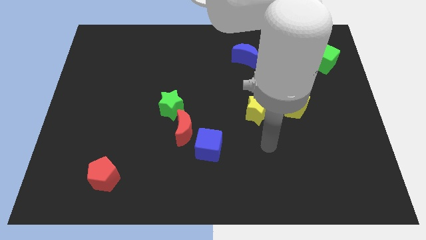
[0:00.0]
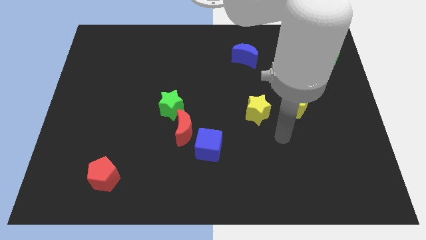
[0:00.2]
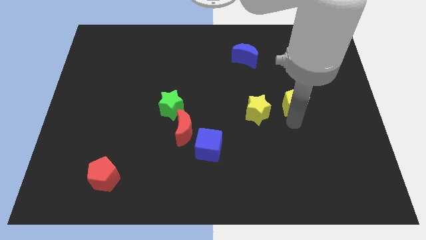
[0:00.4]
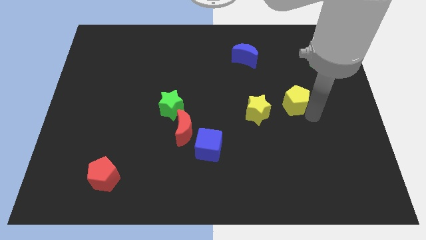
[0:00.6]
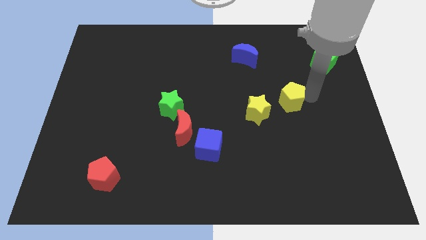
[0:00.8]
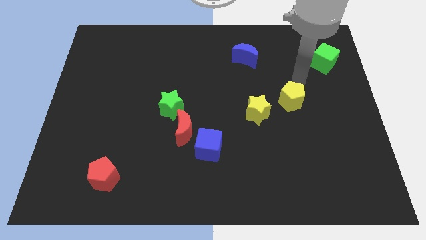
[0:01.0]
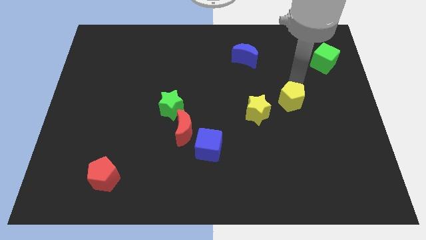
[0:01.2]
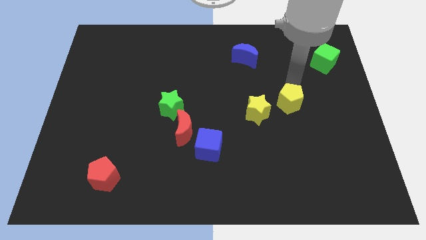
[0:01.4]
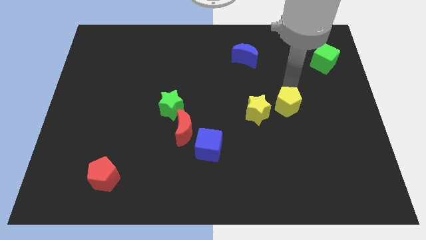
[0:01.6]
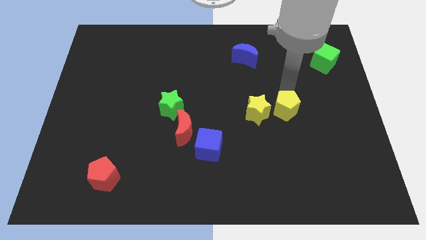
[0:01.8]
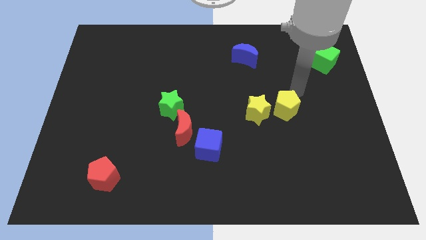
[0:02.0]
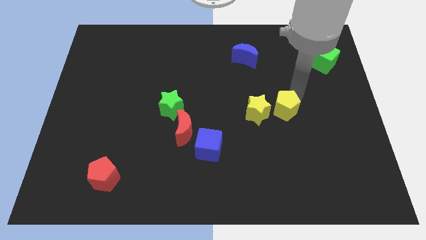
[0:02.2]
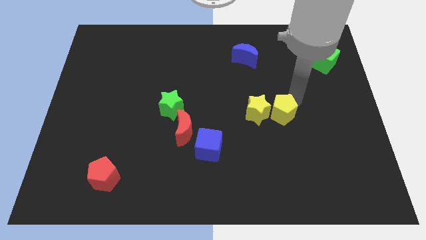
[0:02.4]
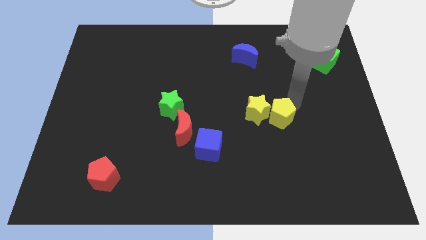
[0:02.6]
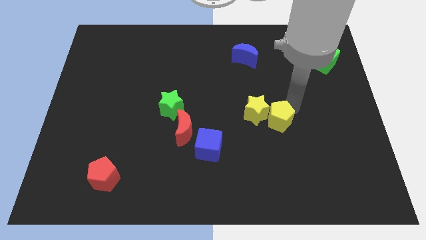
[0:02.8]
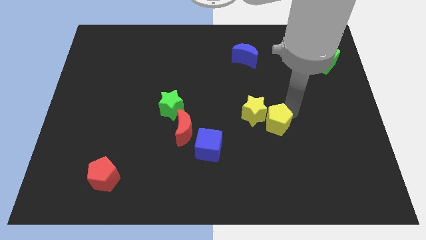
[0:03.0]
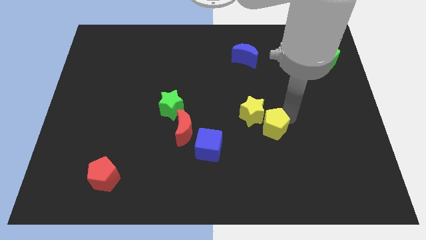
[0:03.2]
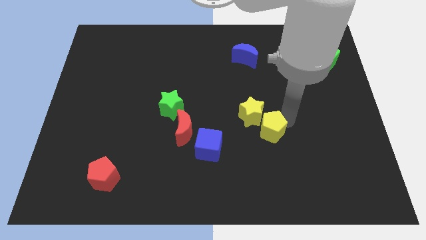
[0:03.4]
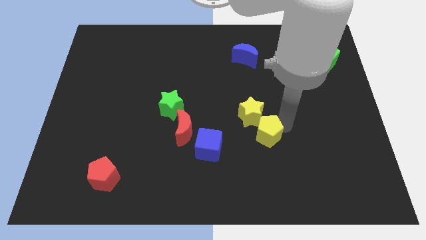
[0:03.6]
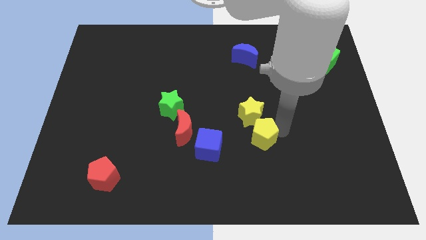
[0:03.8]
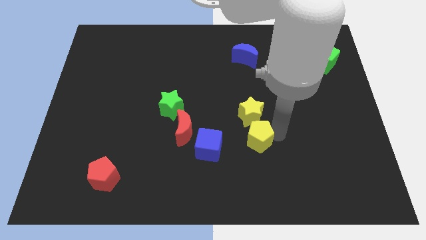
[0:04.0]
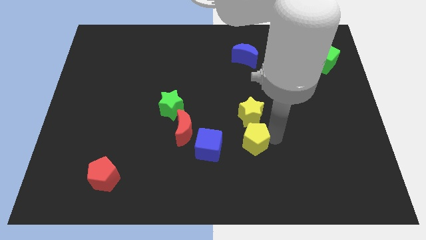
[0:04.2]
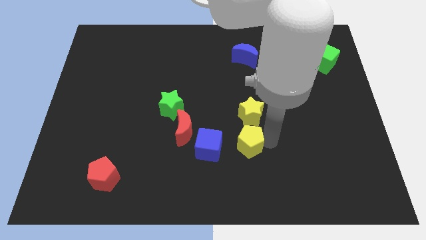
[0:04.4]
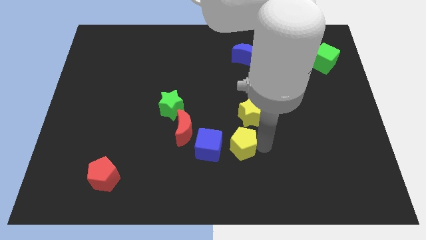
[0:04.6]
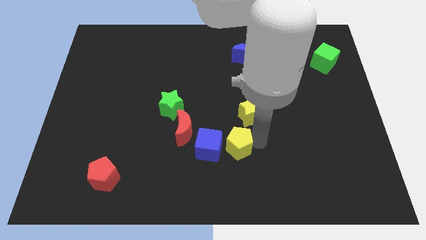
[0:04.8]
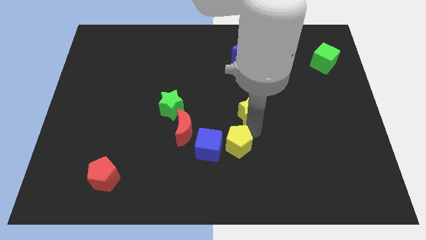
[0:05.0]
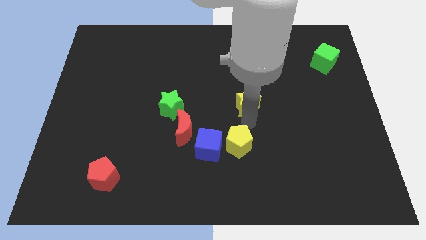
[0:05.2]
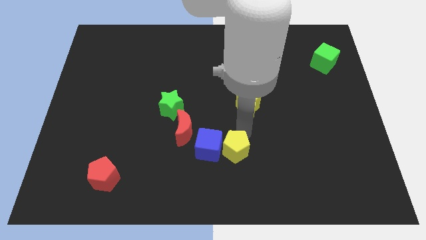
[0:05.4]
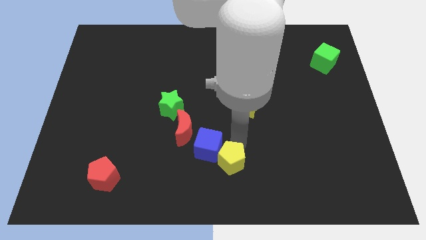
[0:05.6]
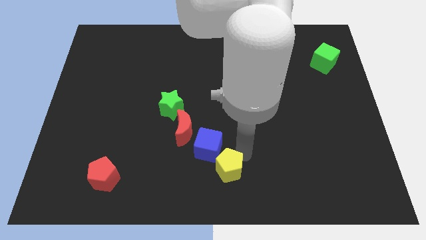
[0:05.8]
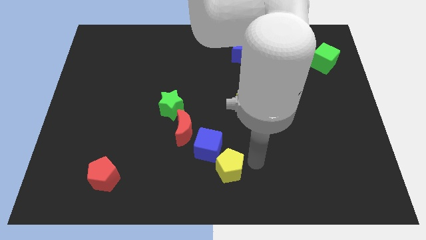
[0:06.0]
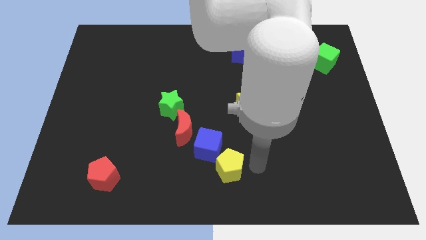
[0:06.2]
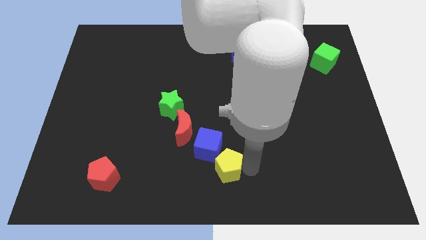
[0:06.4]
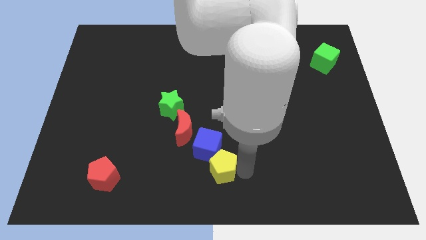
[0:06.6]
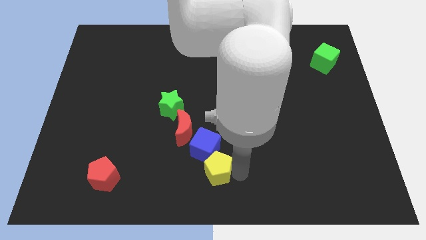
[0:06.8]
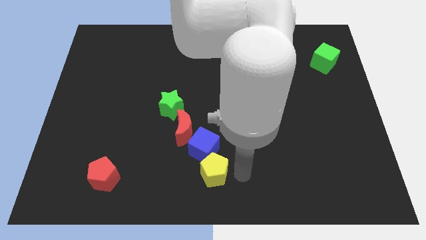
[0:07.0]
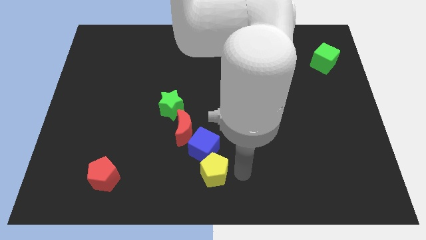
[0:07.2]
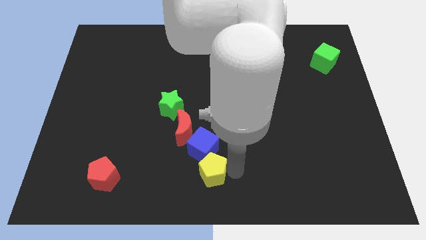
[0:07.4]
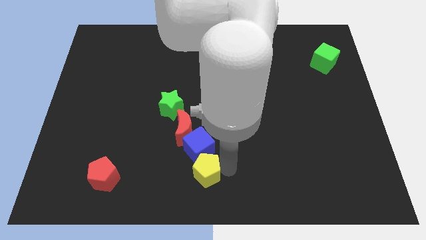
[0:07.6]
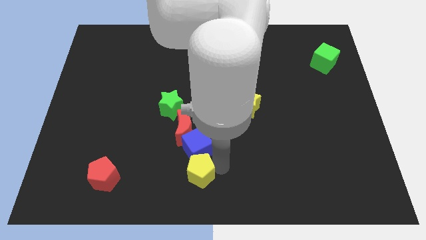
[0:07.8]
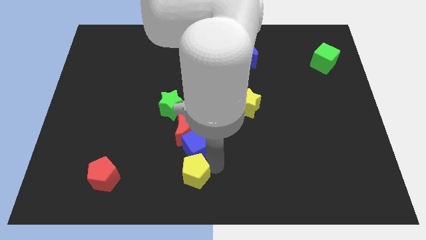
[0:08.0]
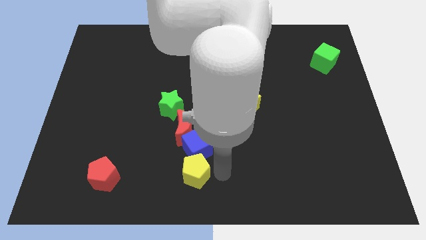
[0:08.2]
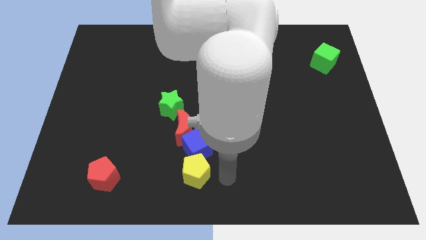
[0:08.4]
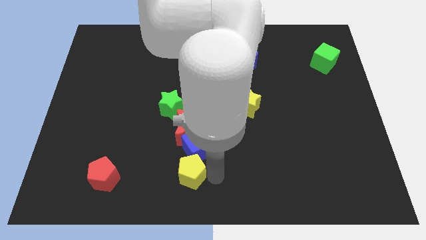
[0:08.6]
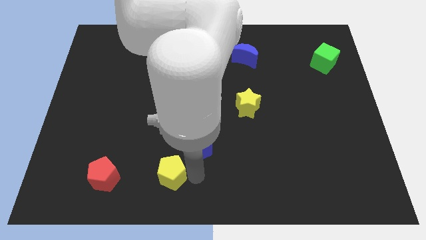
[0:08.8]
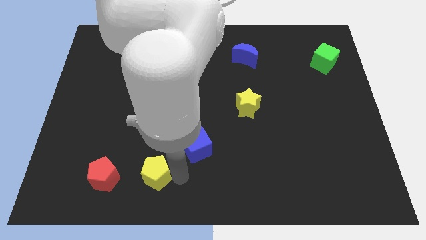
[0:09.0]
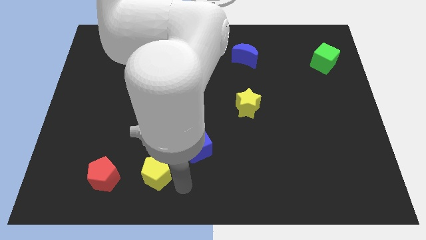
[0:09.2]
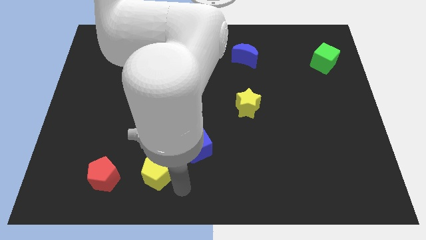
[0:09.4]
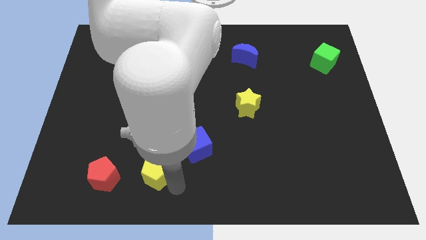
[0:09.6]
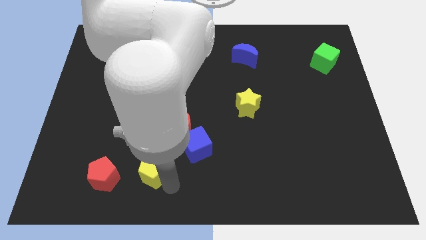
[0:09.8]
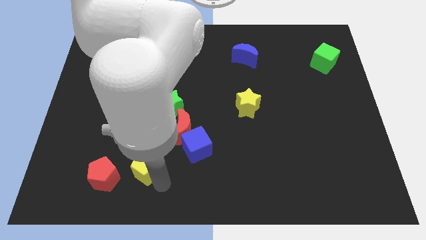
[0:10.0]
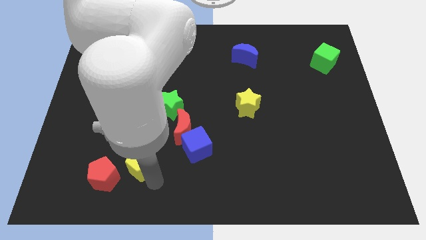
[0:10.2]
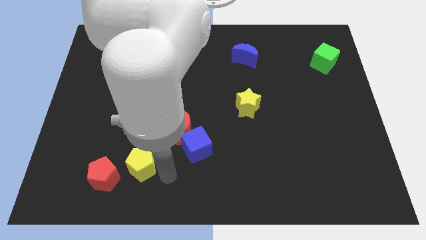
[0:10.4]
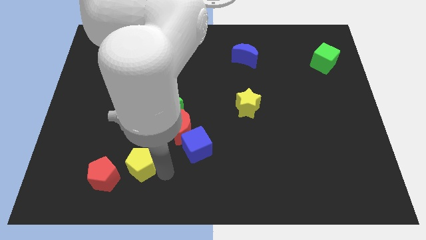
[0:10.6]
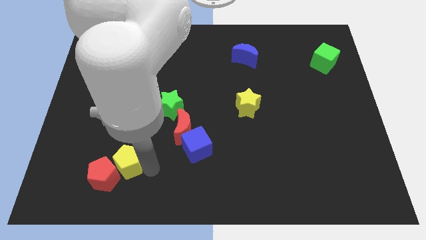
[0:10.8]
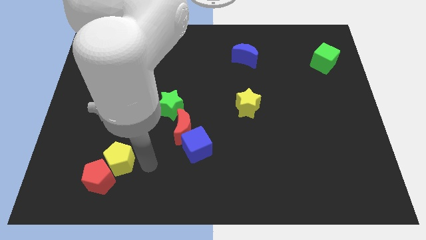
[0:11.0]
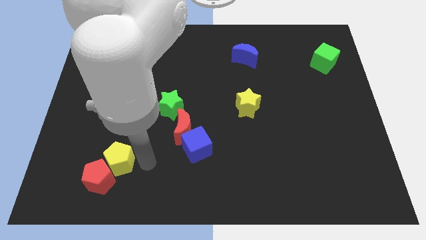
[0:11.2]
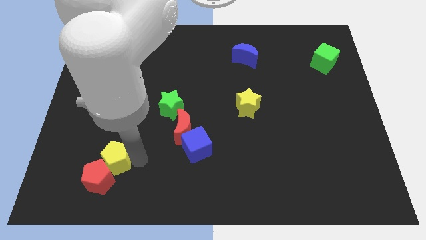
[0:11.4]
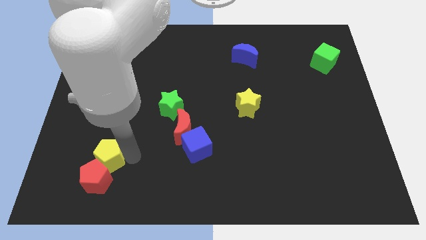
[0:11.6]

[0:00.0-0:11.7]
slide the yellow pentagon to the top left side of the red pentagon

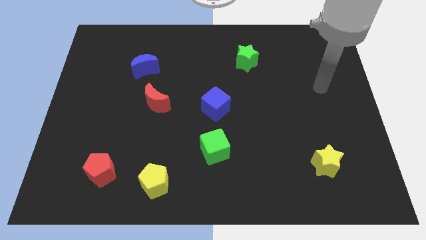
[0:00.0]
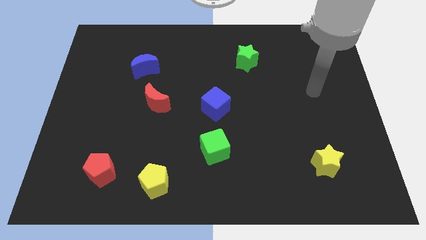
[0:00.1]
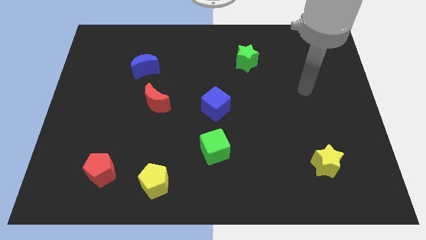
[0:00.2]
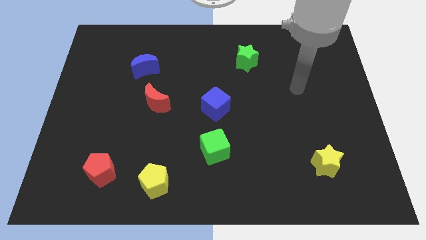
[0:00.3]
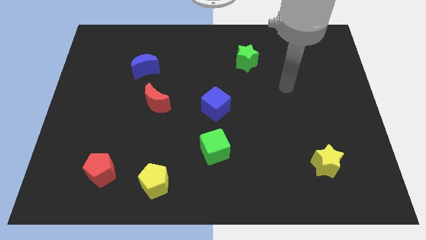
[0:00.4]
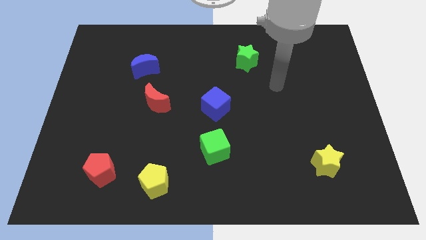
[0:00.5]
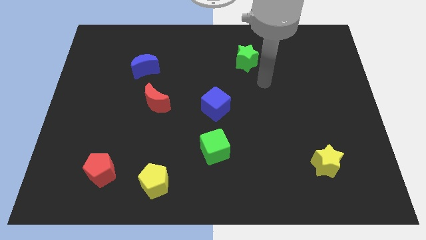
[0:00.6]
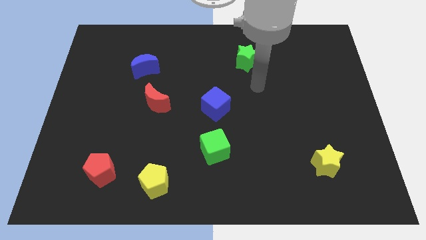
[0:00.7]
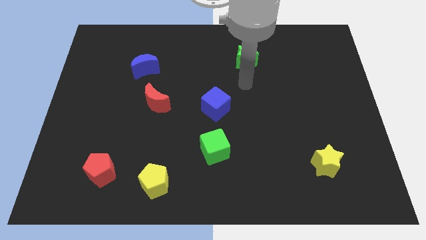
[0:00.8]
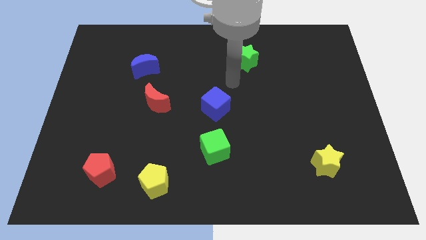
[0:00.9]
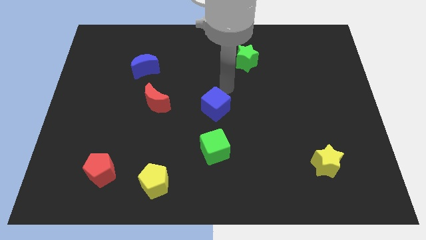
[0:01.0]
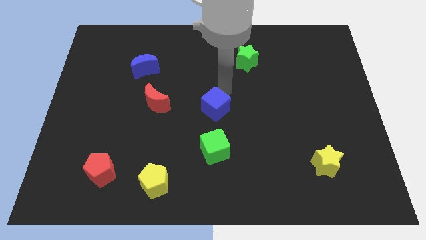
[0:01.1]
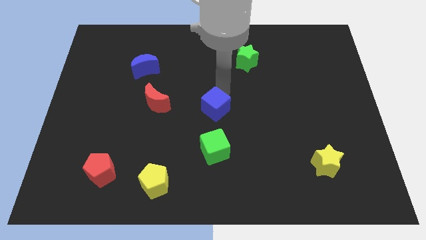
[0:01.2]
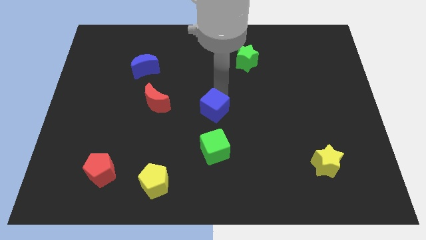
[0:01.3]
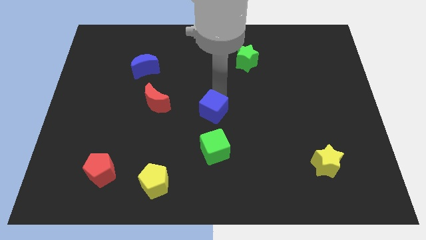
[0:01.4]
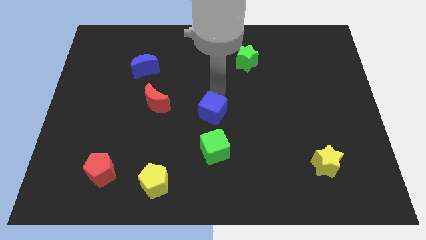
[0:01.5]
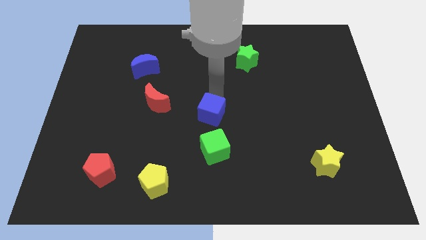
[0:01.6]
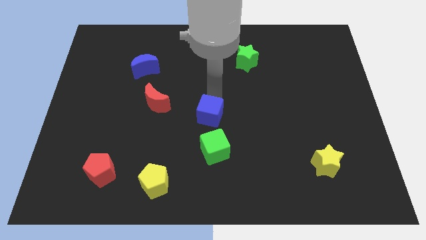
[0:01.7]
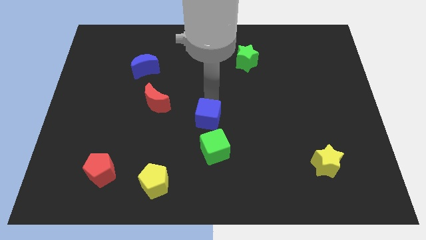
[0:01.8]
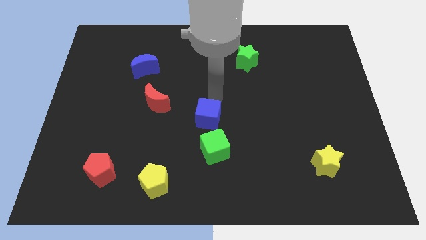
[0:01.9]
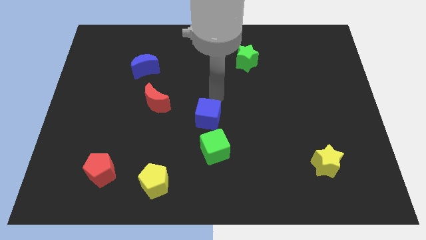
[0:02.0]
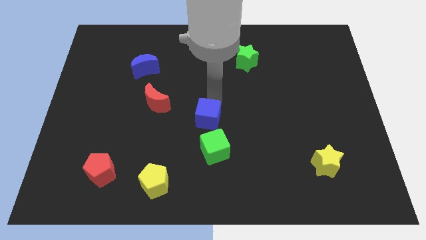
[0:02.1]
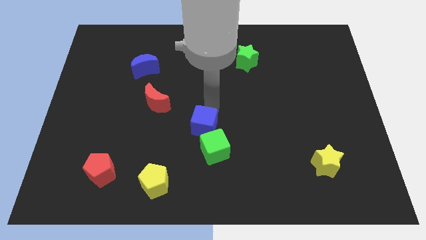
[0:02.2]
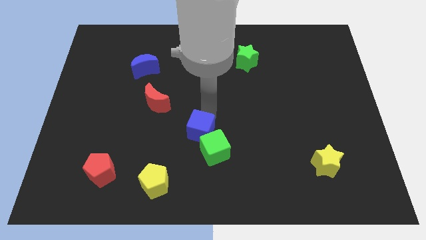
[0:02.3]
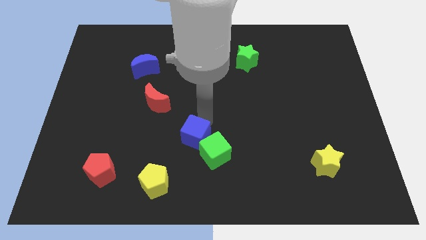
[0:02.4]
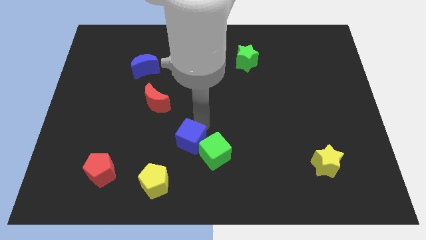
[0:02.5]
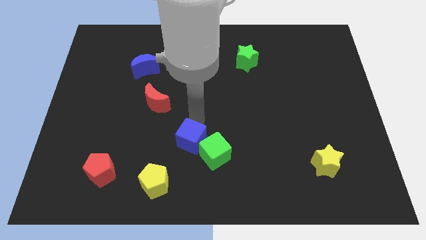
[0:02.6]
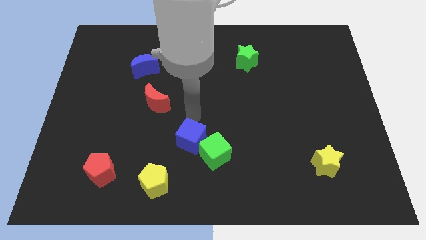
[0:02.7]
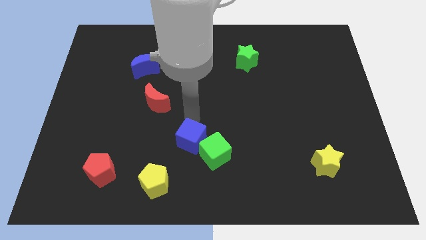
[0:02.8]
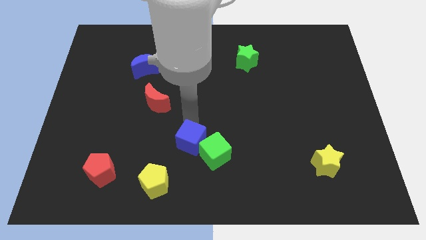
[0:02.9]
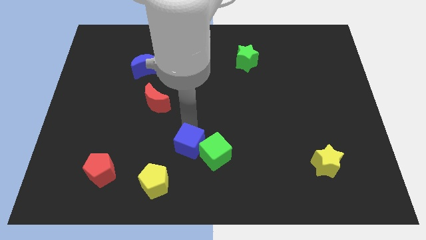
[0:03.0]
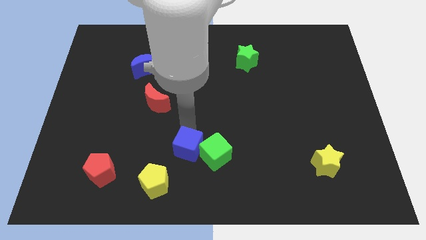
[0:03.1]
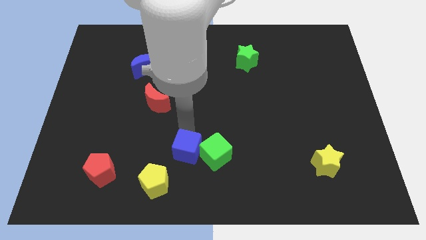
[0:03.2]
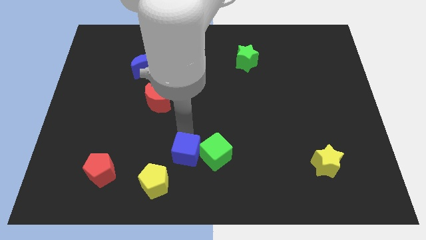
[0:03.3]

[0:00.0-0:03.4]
move the blue cube to the bottom left side of the green cube
